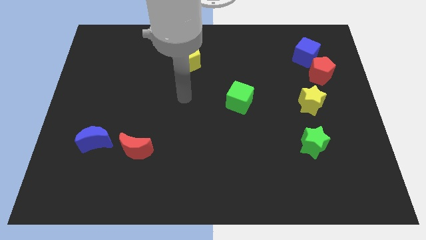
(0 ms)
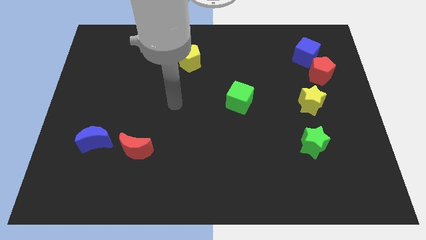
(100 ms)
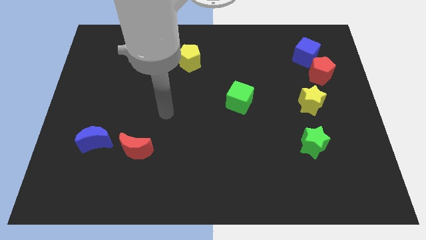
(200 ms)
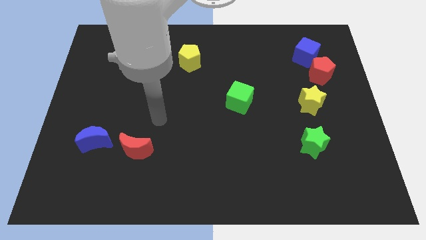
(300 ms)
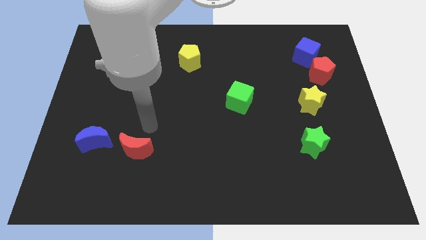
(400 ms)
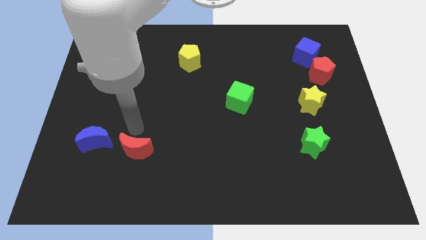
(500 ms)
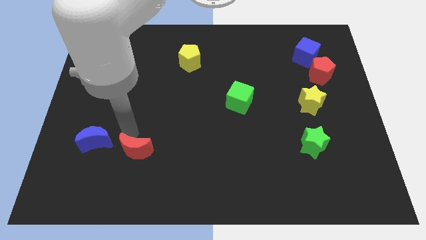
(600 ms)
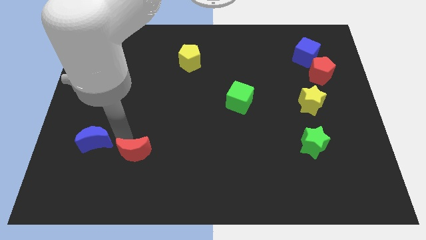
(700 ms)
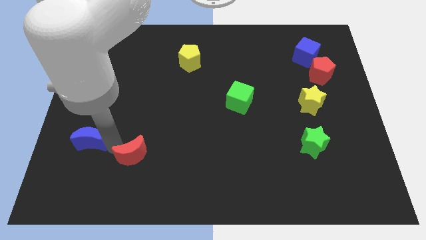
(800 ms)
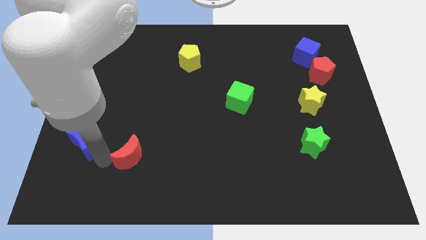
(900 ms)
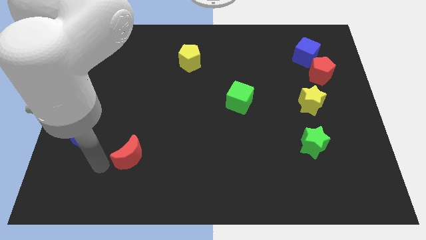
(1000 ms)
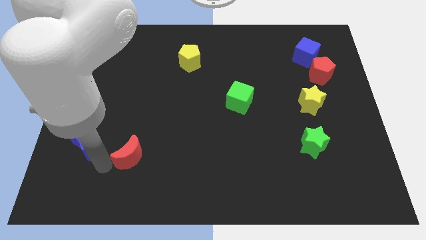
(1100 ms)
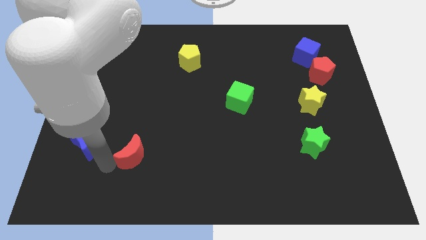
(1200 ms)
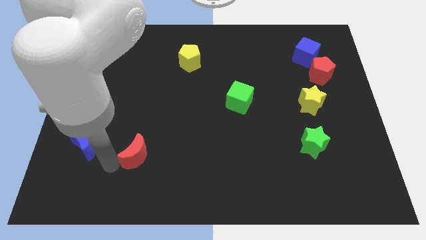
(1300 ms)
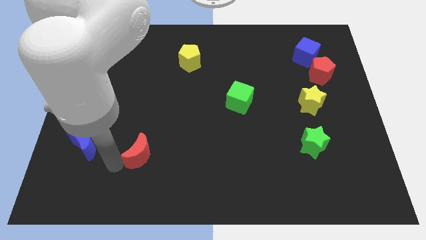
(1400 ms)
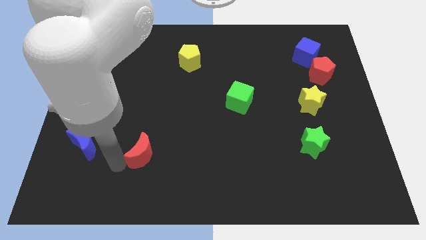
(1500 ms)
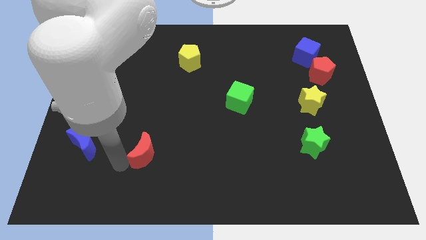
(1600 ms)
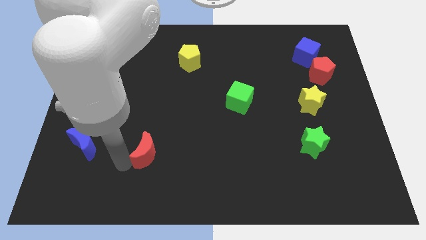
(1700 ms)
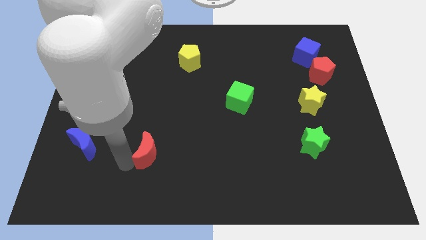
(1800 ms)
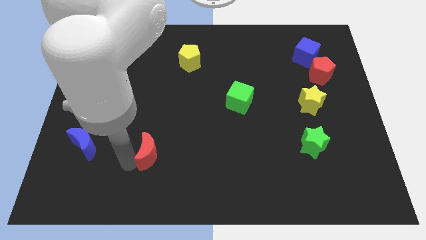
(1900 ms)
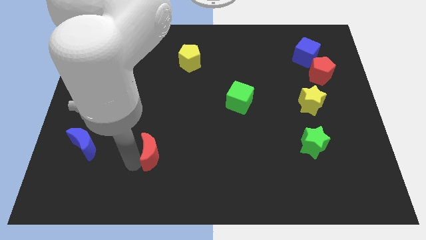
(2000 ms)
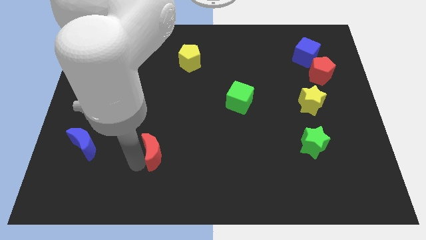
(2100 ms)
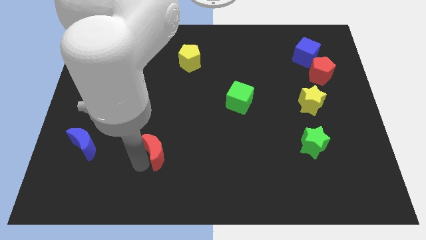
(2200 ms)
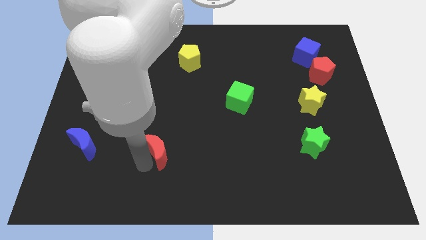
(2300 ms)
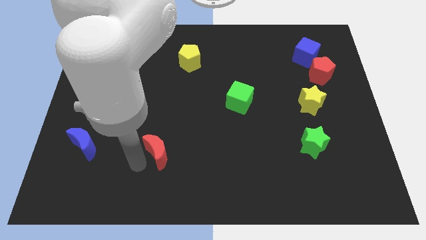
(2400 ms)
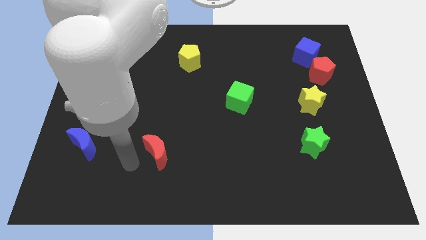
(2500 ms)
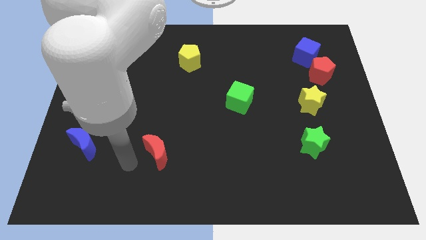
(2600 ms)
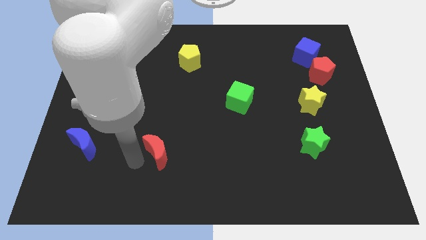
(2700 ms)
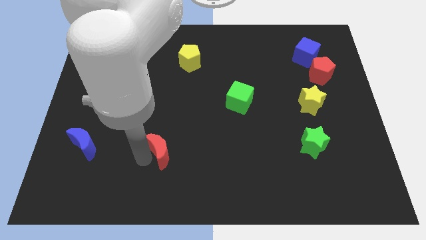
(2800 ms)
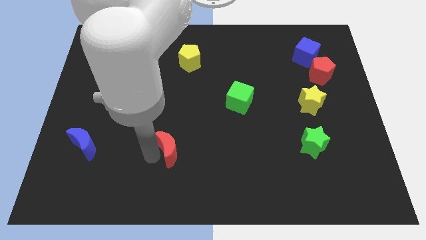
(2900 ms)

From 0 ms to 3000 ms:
move the red moon a little bit to the right

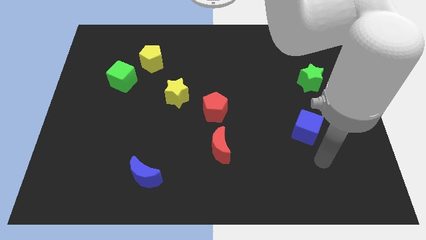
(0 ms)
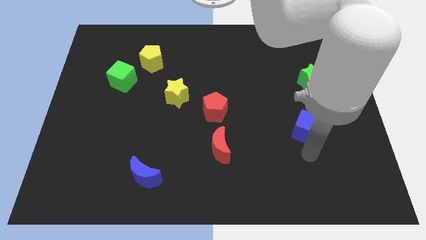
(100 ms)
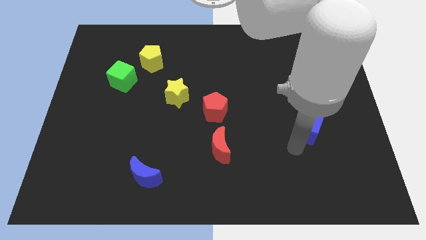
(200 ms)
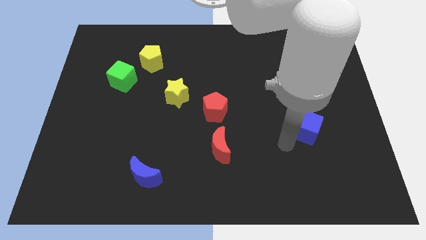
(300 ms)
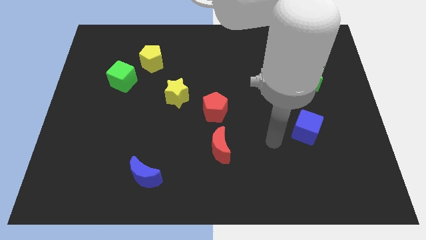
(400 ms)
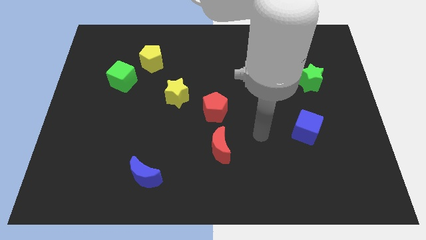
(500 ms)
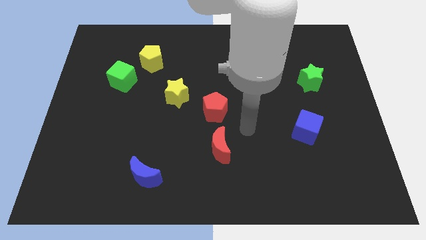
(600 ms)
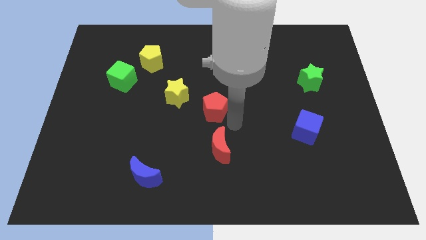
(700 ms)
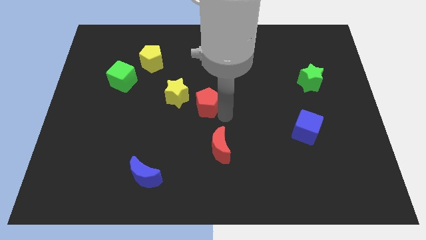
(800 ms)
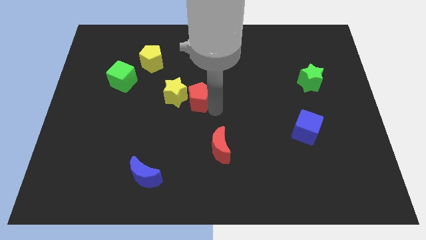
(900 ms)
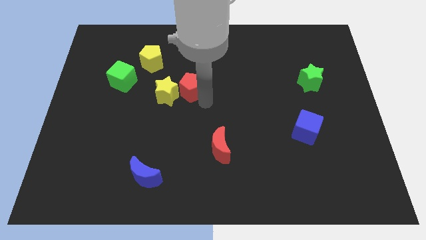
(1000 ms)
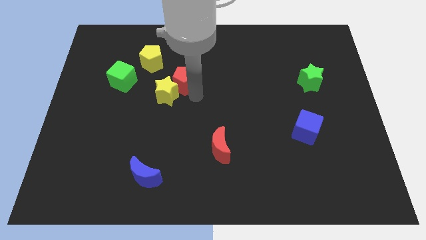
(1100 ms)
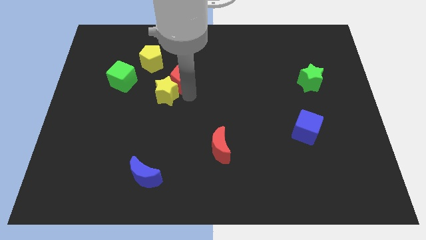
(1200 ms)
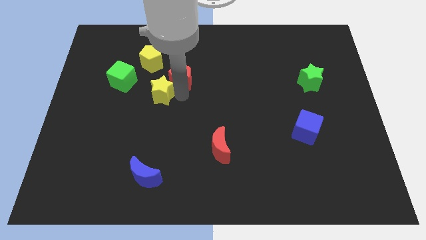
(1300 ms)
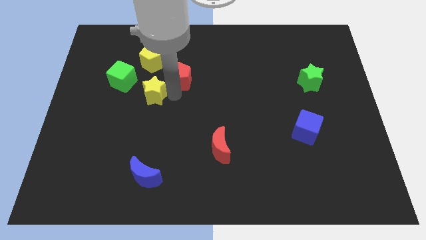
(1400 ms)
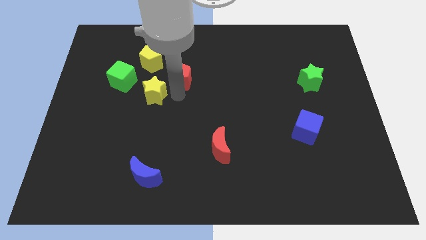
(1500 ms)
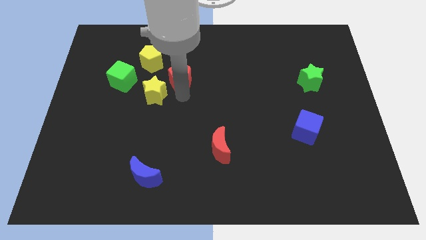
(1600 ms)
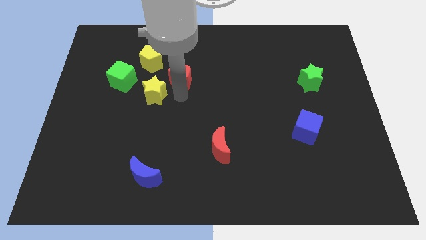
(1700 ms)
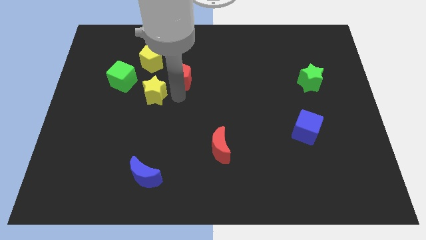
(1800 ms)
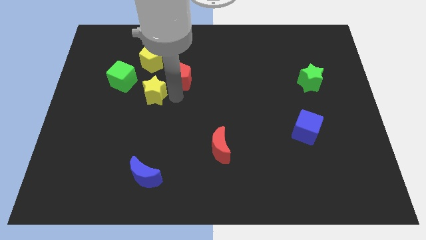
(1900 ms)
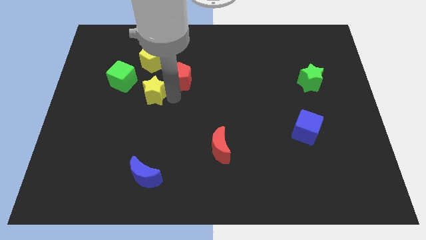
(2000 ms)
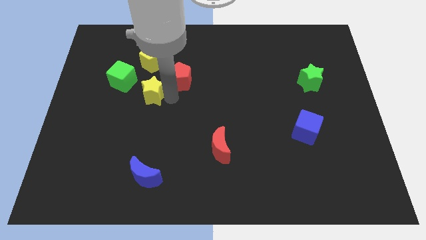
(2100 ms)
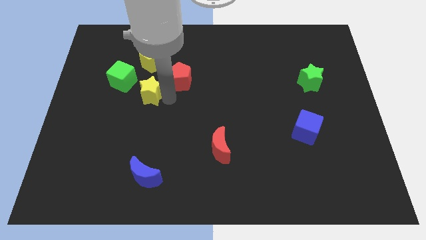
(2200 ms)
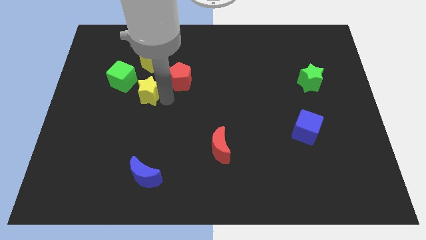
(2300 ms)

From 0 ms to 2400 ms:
slide the yellow star a bit left

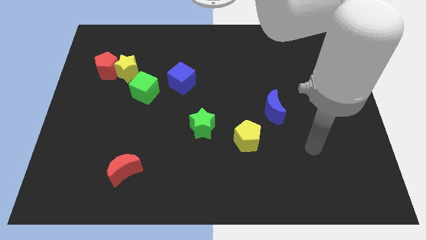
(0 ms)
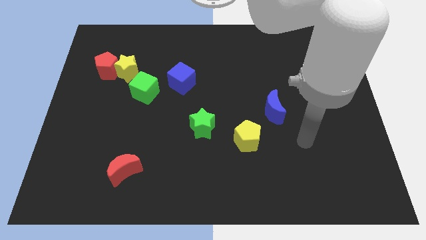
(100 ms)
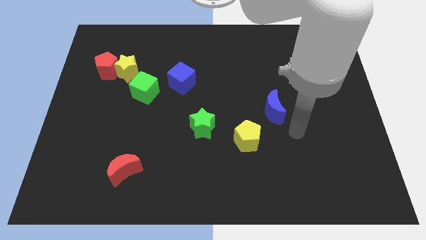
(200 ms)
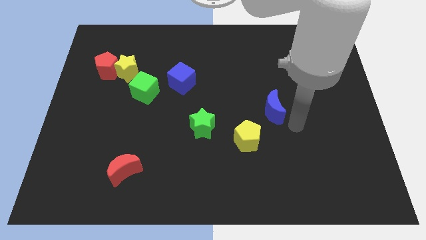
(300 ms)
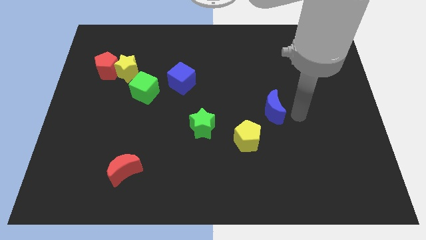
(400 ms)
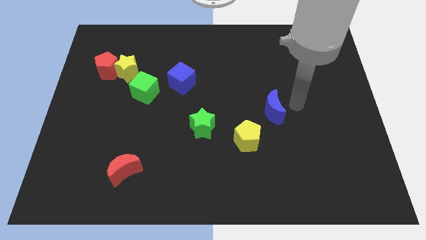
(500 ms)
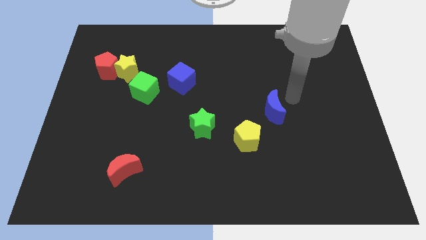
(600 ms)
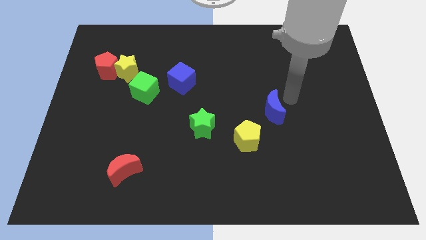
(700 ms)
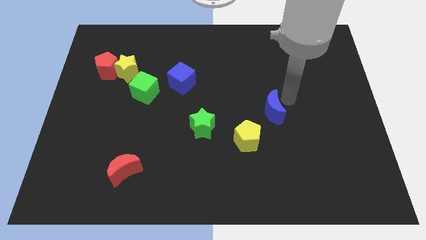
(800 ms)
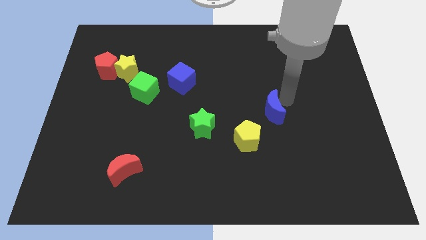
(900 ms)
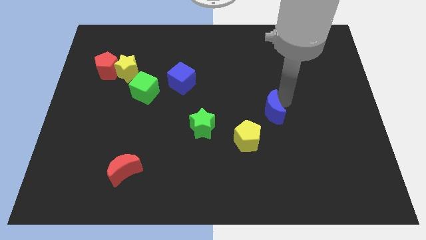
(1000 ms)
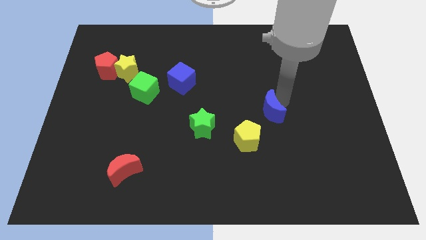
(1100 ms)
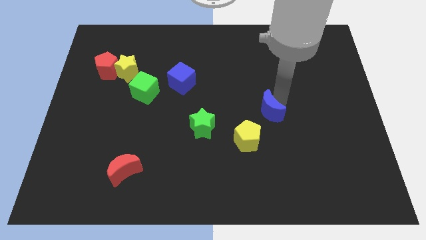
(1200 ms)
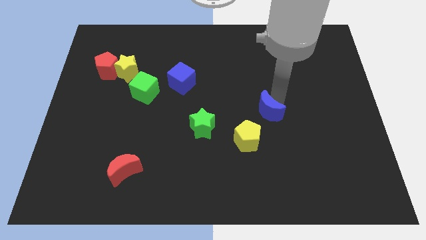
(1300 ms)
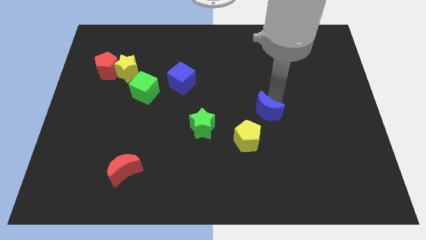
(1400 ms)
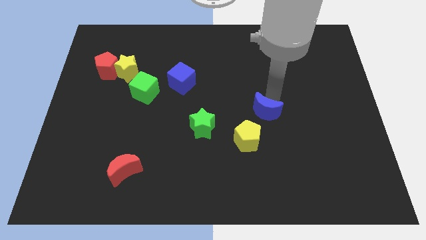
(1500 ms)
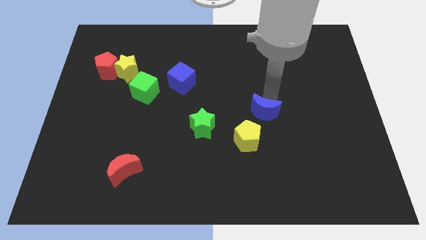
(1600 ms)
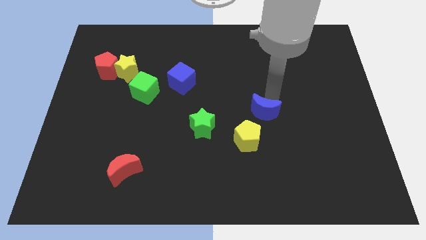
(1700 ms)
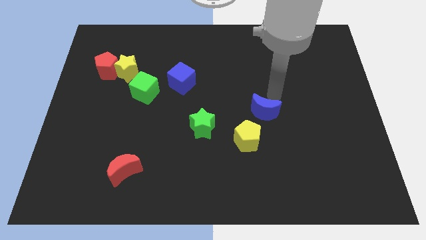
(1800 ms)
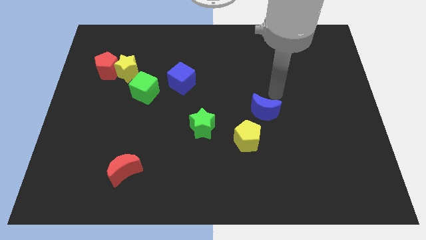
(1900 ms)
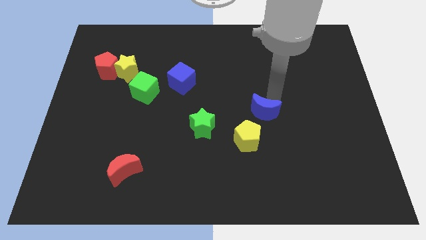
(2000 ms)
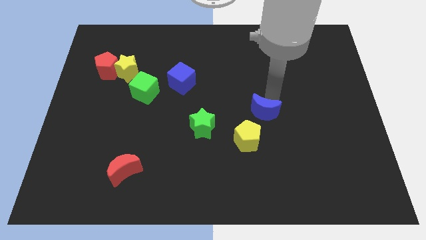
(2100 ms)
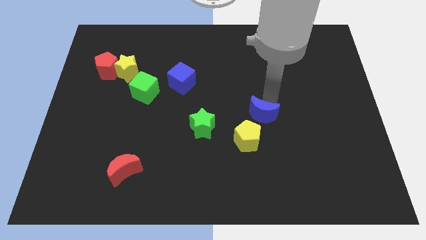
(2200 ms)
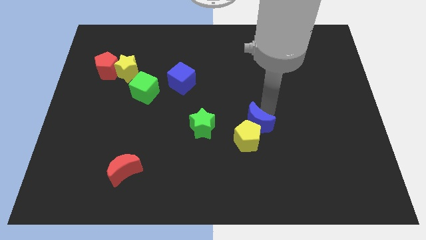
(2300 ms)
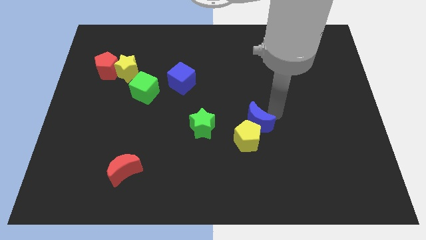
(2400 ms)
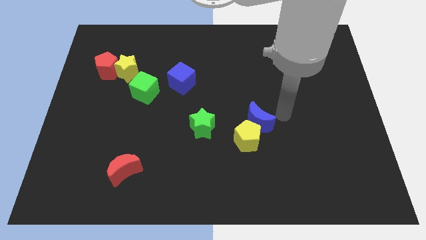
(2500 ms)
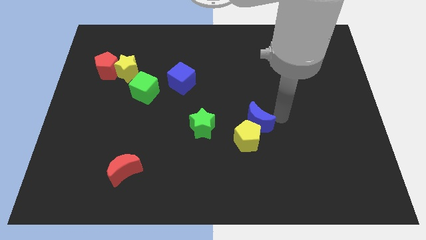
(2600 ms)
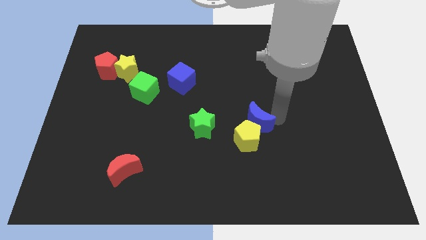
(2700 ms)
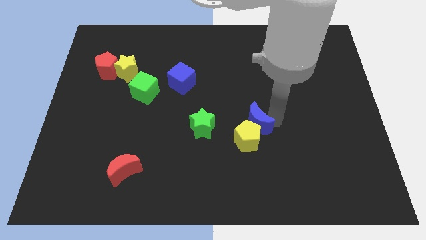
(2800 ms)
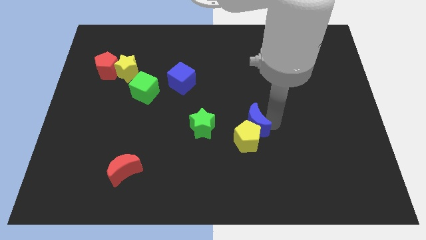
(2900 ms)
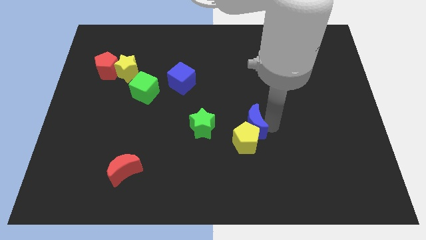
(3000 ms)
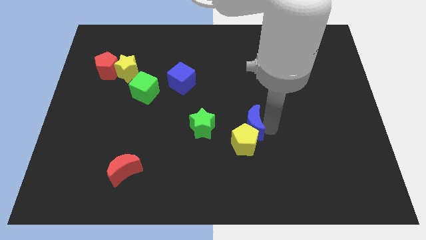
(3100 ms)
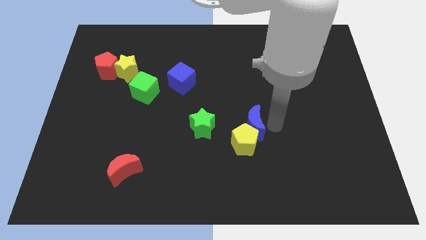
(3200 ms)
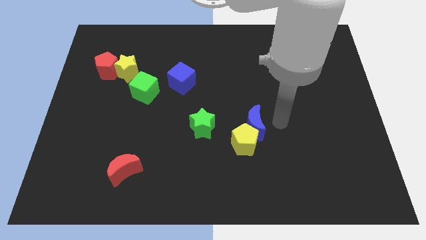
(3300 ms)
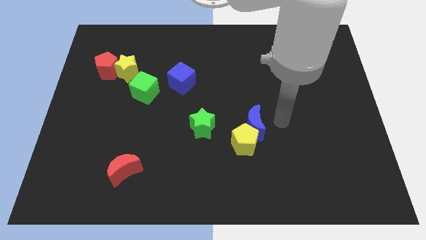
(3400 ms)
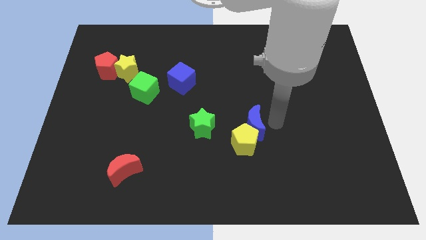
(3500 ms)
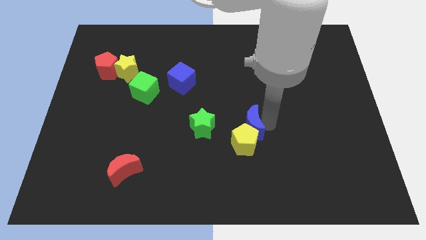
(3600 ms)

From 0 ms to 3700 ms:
slightly move the blue moon down and to the left
